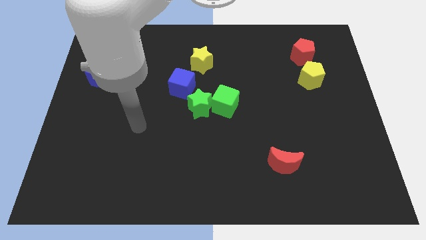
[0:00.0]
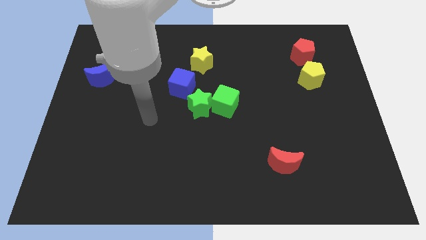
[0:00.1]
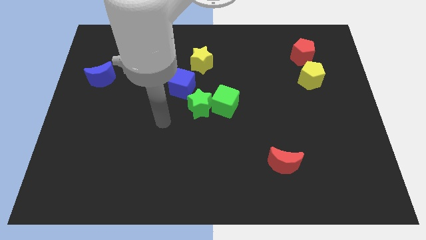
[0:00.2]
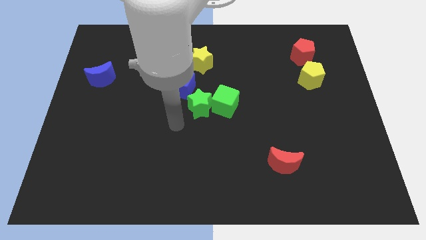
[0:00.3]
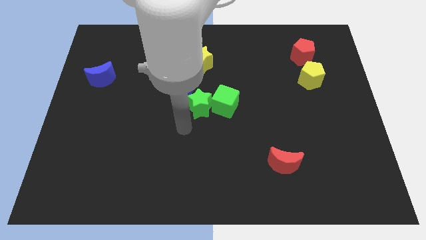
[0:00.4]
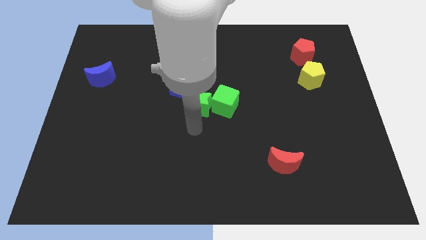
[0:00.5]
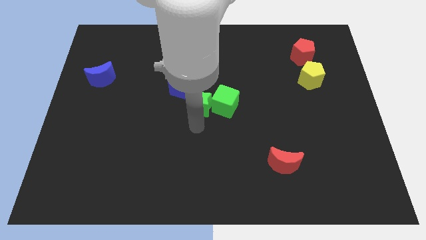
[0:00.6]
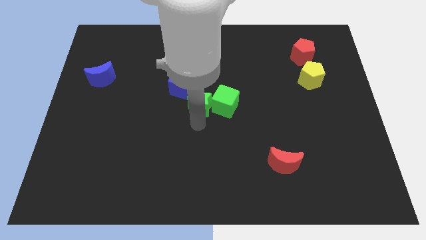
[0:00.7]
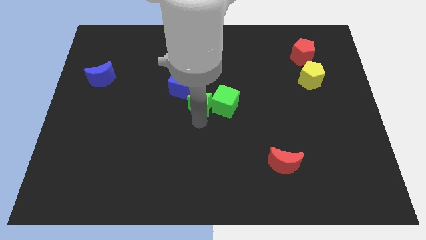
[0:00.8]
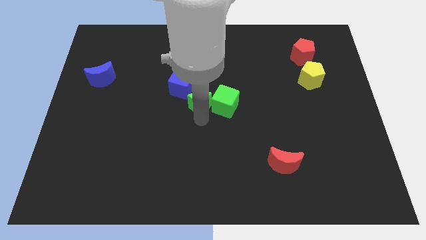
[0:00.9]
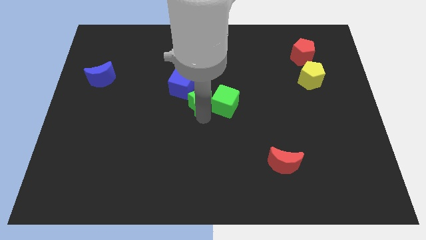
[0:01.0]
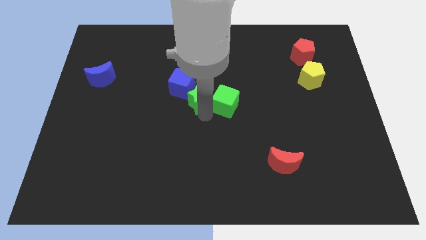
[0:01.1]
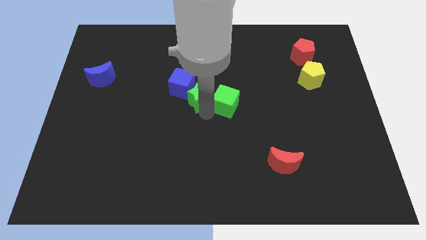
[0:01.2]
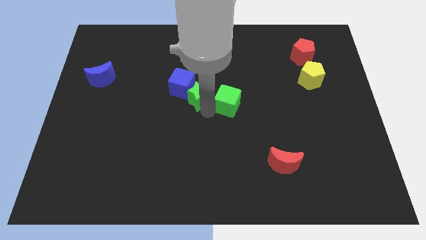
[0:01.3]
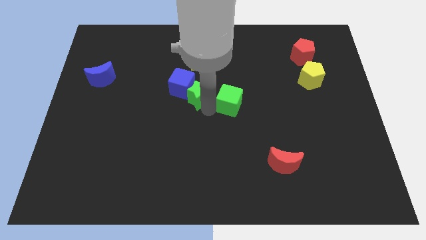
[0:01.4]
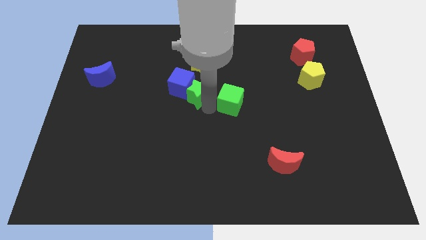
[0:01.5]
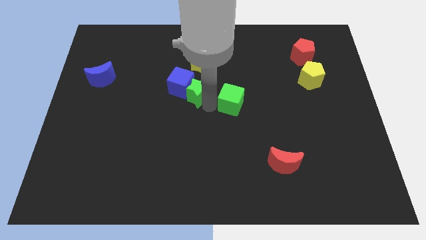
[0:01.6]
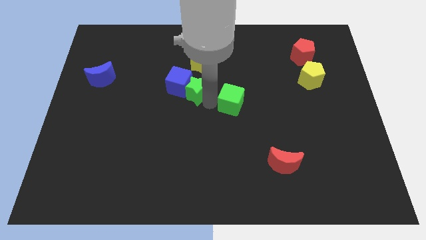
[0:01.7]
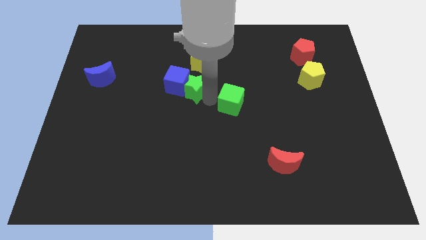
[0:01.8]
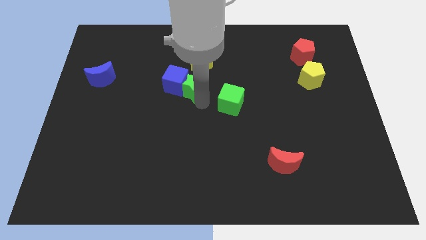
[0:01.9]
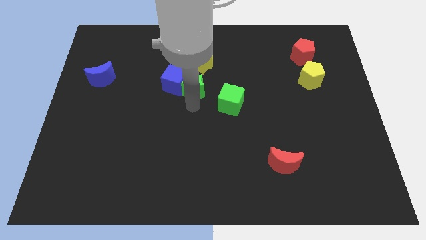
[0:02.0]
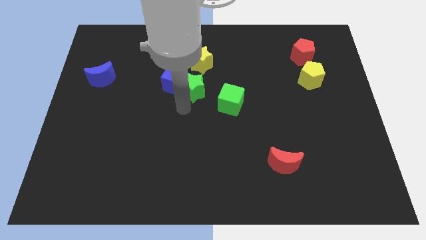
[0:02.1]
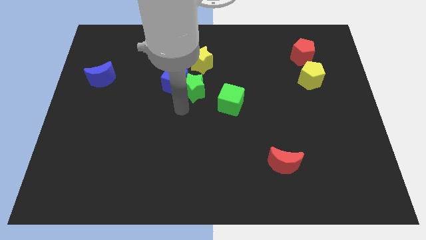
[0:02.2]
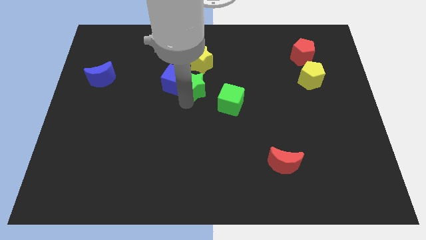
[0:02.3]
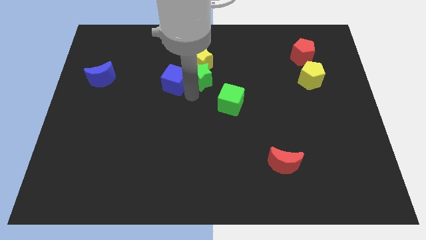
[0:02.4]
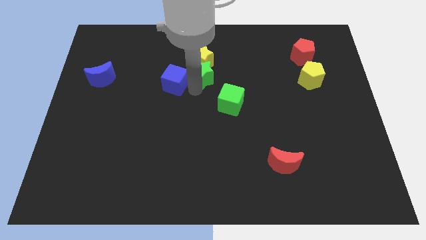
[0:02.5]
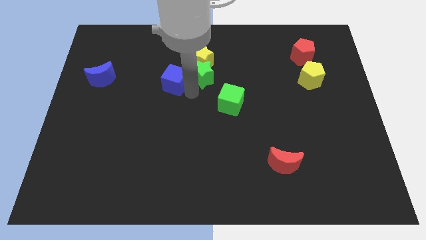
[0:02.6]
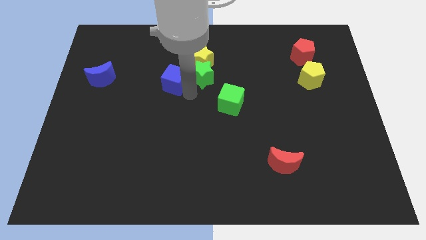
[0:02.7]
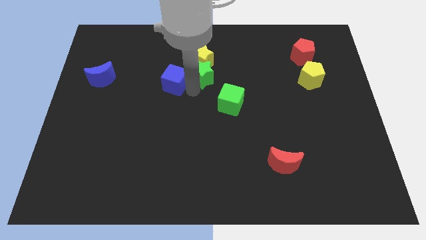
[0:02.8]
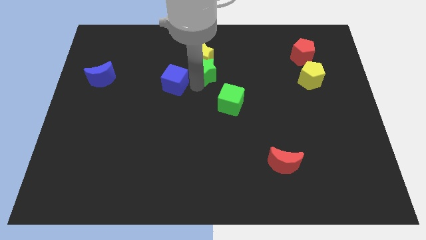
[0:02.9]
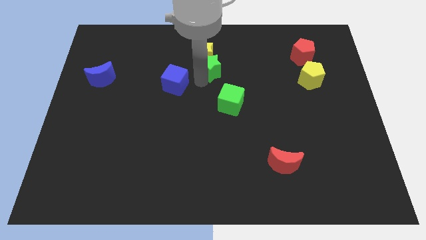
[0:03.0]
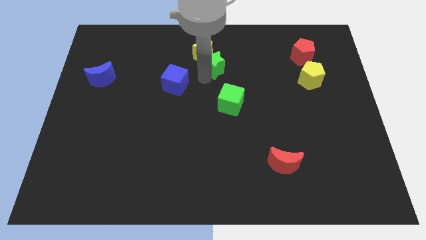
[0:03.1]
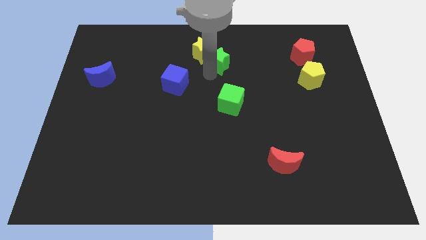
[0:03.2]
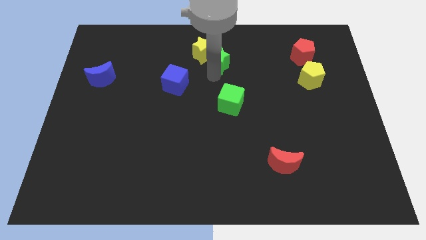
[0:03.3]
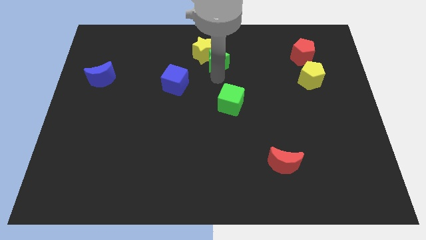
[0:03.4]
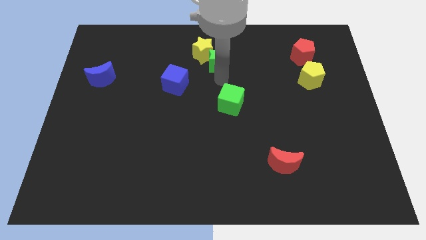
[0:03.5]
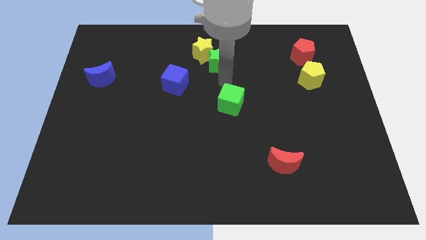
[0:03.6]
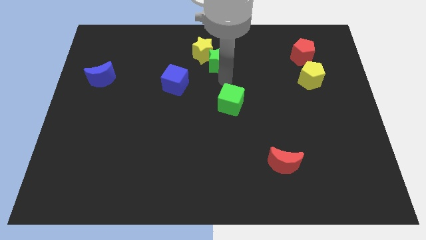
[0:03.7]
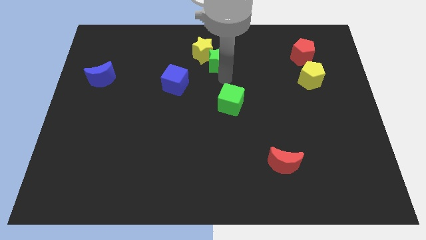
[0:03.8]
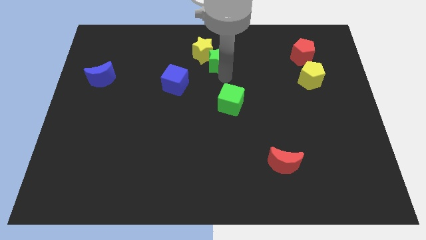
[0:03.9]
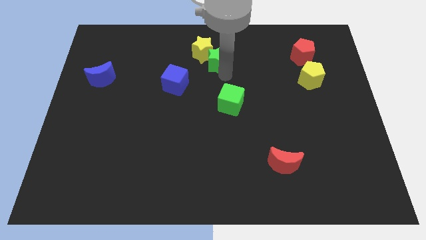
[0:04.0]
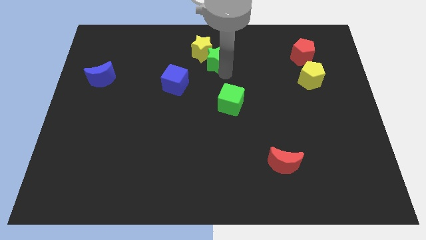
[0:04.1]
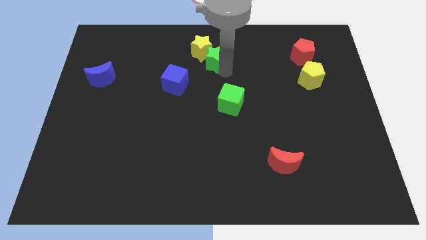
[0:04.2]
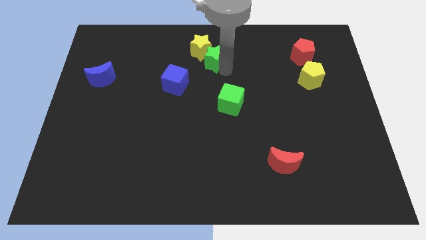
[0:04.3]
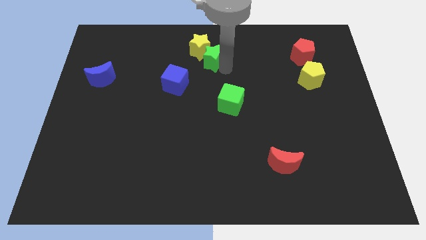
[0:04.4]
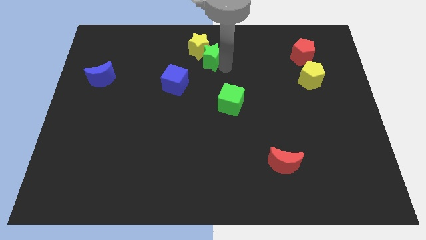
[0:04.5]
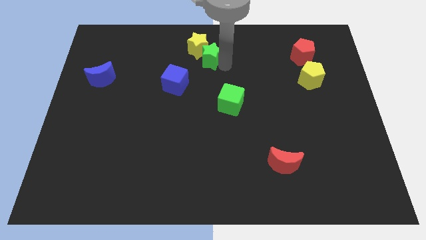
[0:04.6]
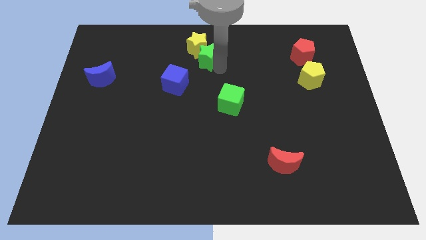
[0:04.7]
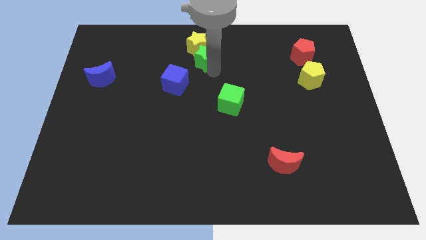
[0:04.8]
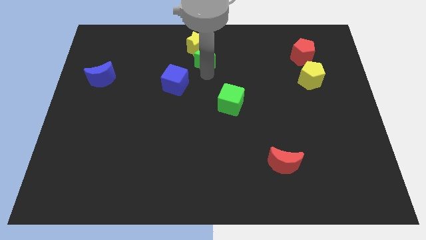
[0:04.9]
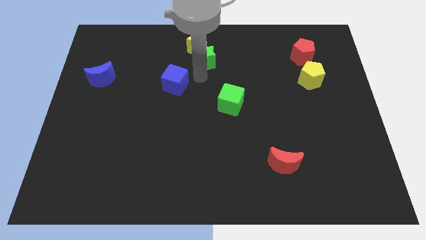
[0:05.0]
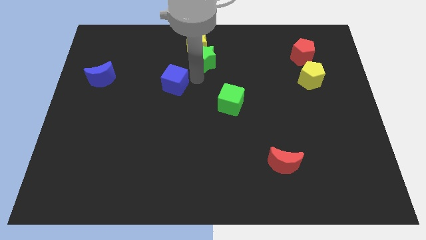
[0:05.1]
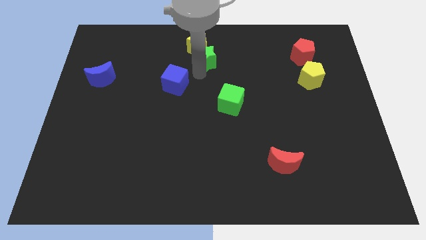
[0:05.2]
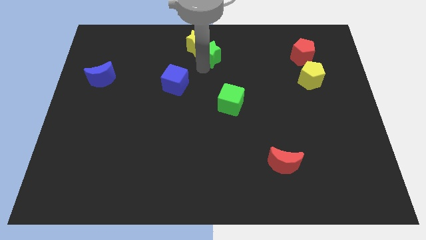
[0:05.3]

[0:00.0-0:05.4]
slide the green star to the towards your base
